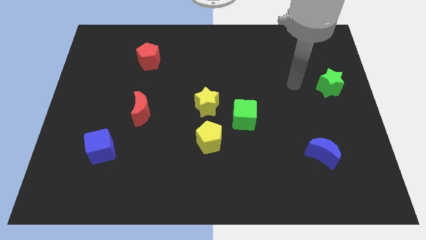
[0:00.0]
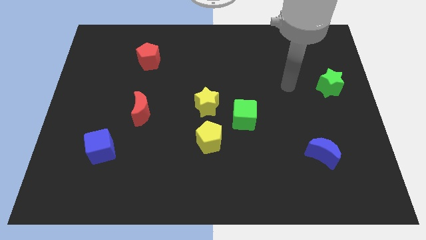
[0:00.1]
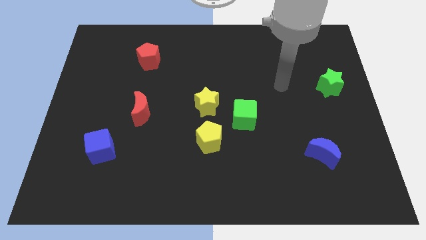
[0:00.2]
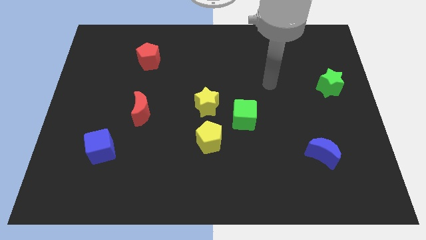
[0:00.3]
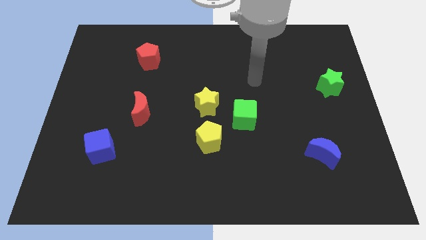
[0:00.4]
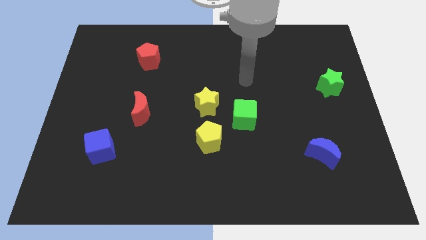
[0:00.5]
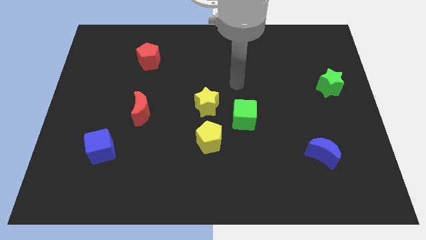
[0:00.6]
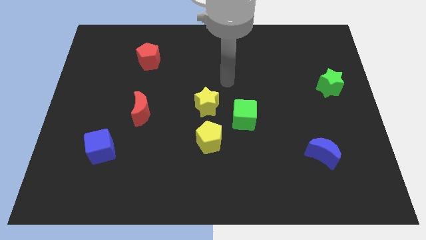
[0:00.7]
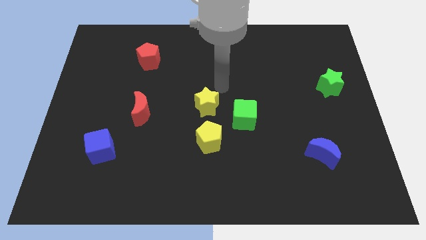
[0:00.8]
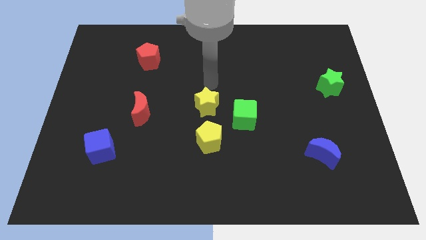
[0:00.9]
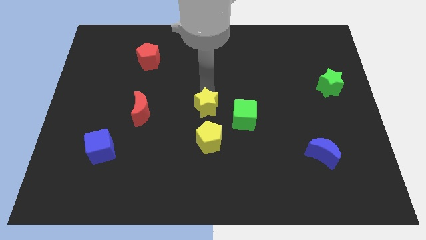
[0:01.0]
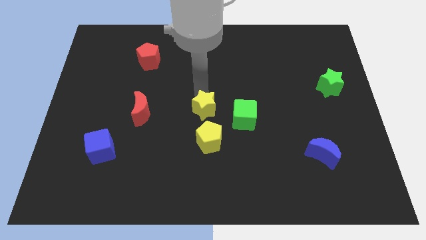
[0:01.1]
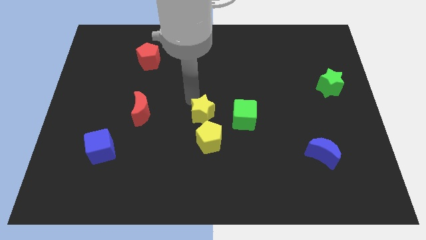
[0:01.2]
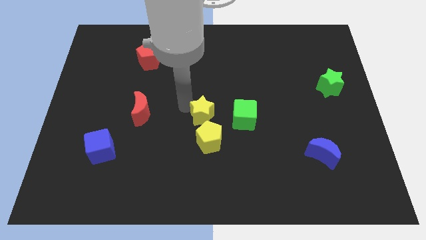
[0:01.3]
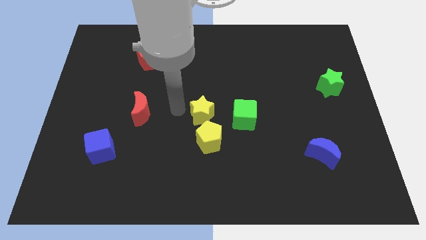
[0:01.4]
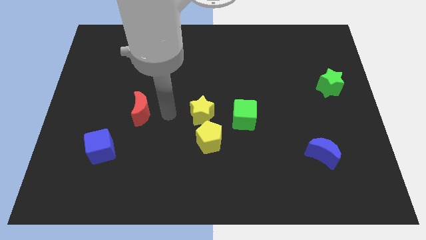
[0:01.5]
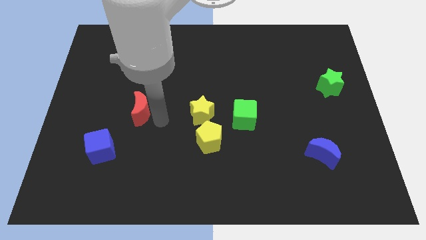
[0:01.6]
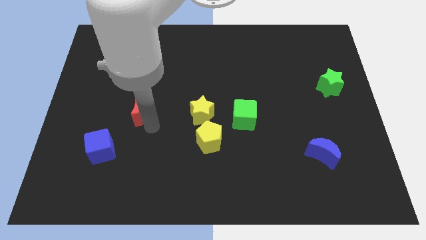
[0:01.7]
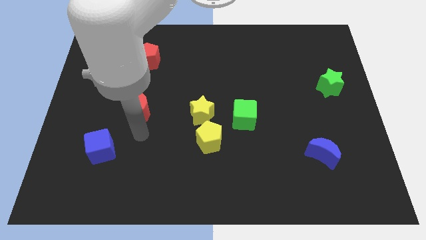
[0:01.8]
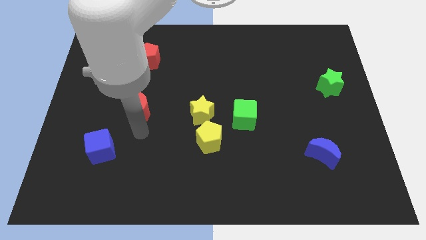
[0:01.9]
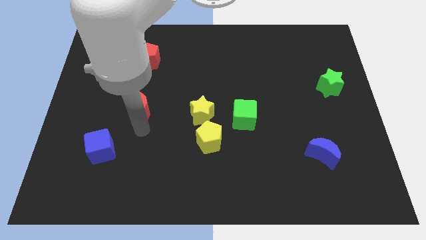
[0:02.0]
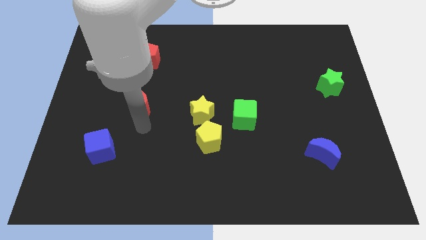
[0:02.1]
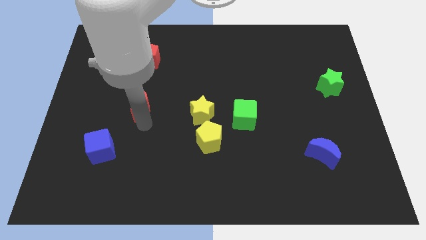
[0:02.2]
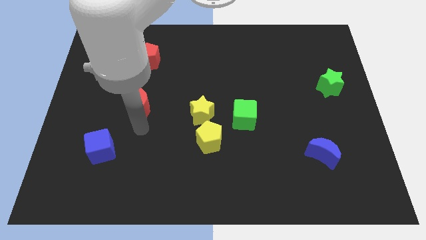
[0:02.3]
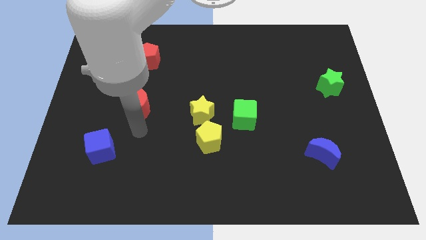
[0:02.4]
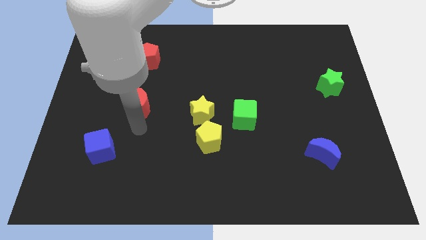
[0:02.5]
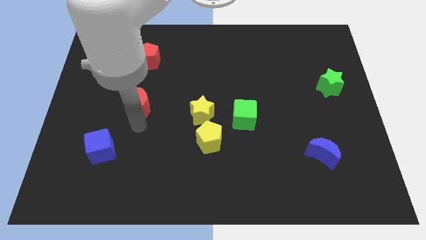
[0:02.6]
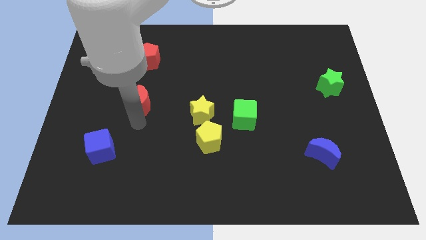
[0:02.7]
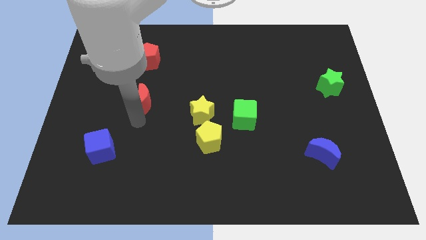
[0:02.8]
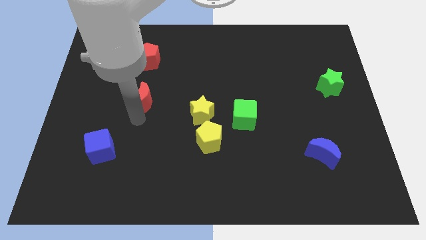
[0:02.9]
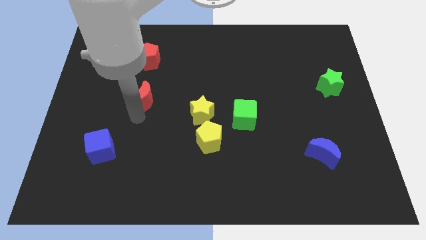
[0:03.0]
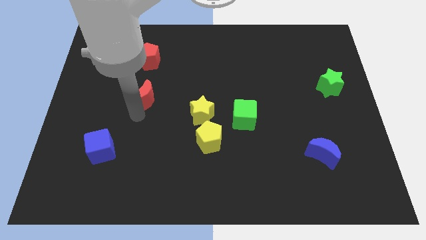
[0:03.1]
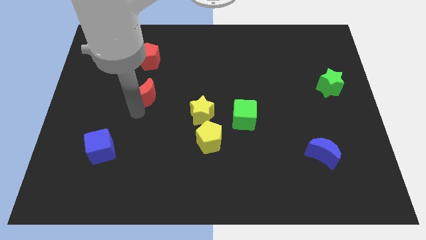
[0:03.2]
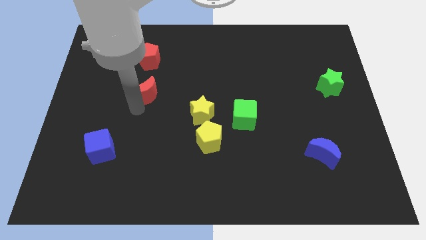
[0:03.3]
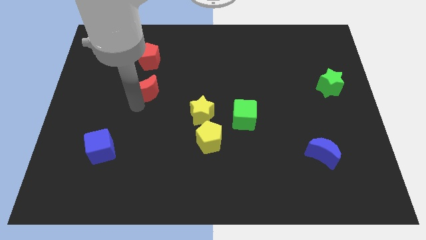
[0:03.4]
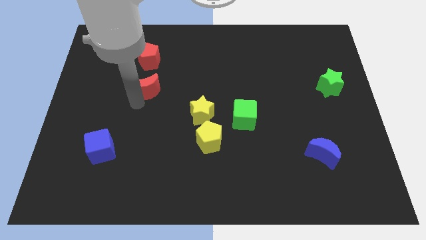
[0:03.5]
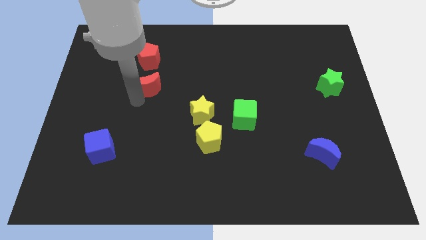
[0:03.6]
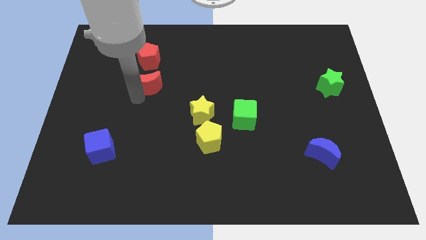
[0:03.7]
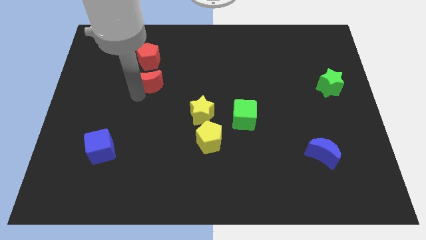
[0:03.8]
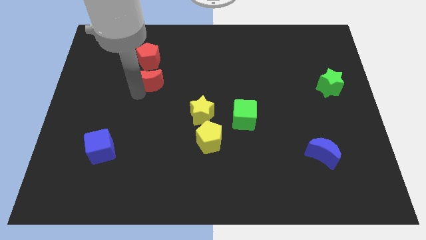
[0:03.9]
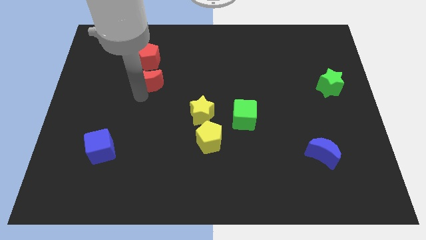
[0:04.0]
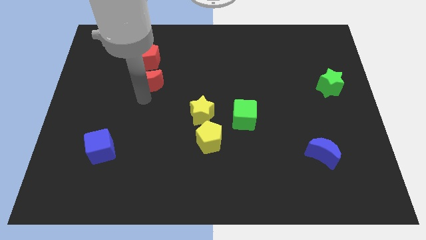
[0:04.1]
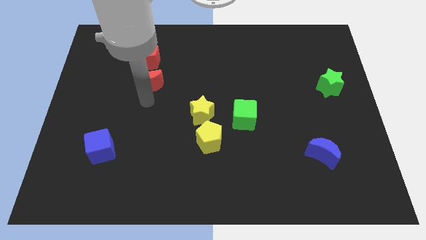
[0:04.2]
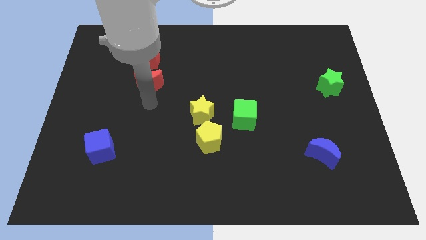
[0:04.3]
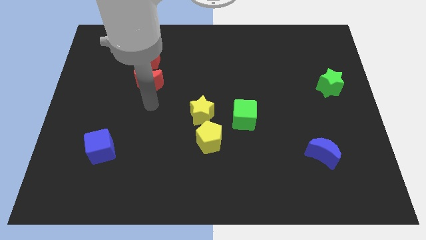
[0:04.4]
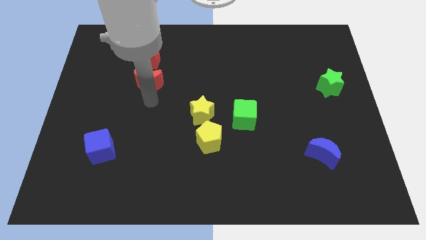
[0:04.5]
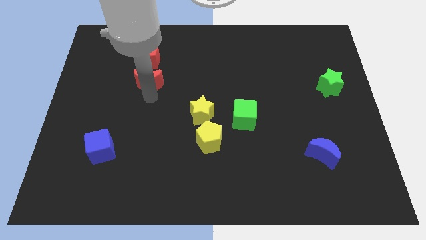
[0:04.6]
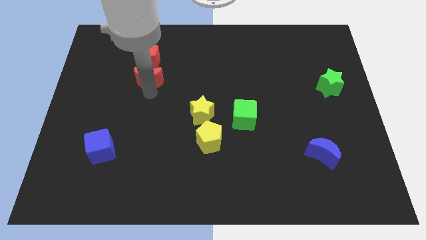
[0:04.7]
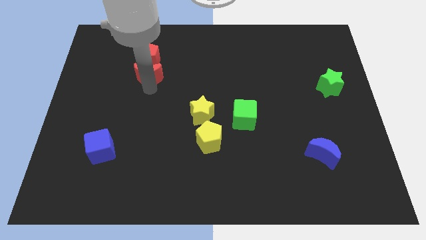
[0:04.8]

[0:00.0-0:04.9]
slide the red moon close to the red pentagon

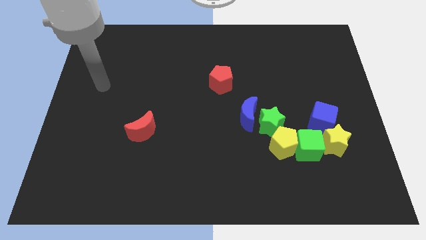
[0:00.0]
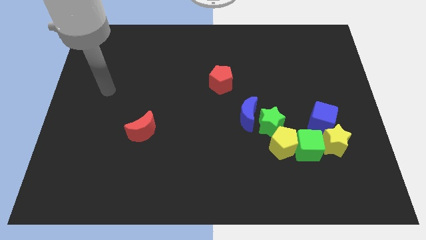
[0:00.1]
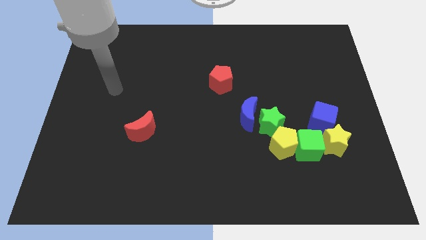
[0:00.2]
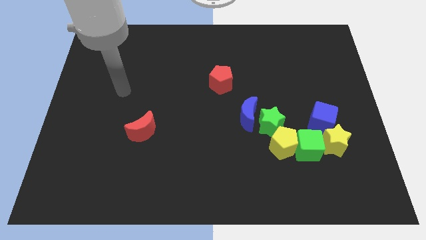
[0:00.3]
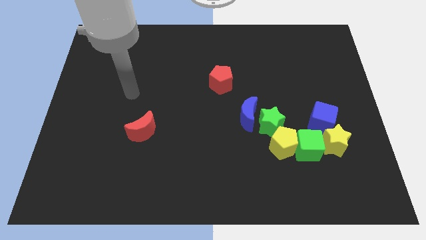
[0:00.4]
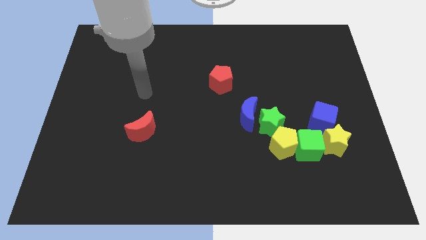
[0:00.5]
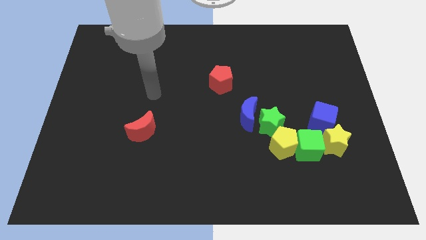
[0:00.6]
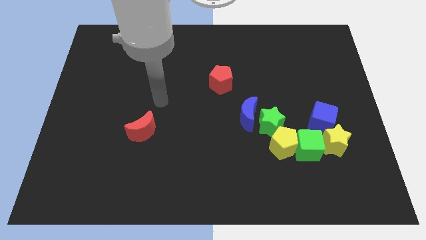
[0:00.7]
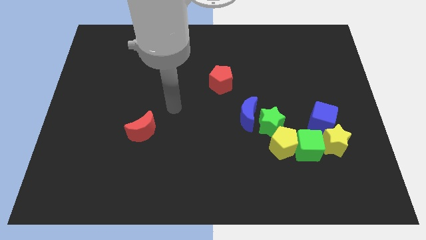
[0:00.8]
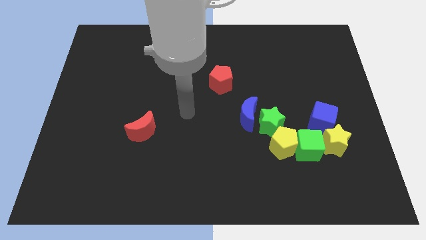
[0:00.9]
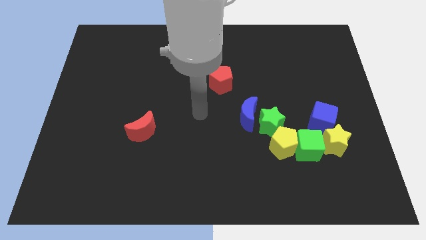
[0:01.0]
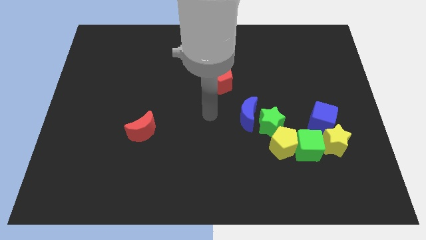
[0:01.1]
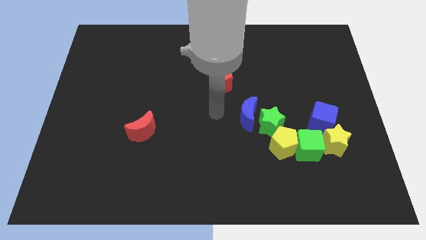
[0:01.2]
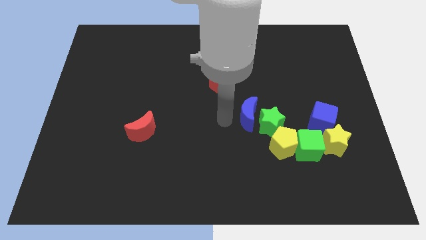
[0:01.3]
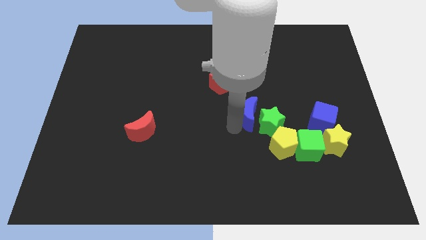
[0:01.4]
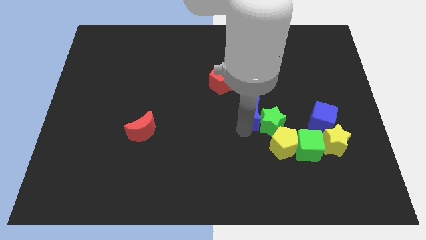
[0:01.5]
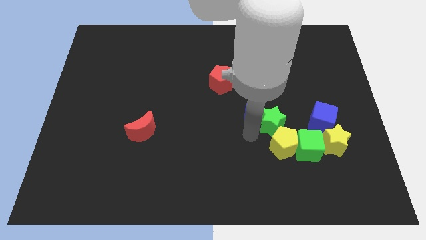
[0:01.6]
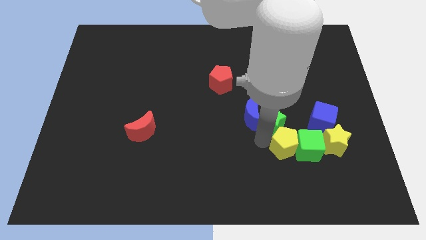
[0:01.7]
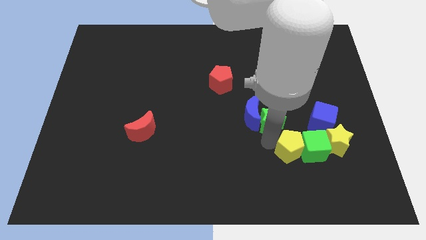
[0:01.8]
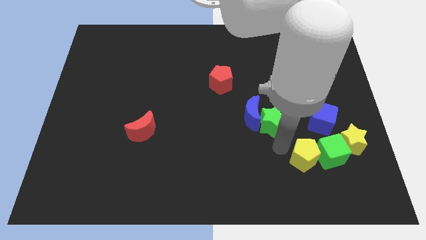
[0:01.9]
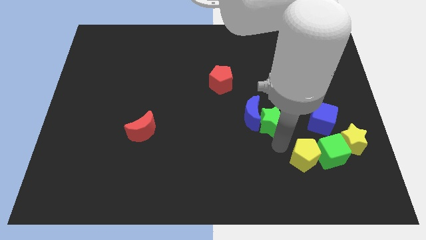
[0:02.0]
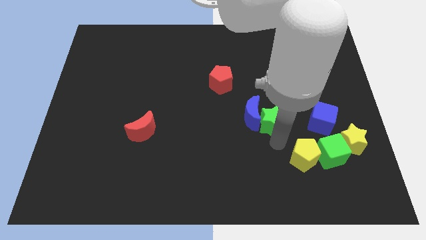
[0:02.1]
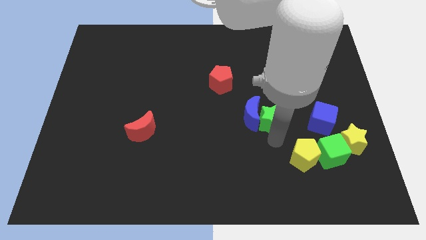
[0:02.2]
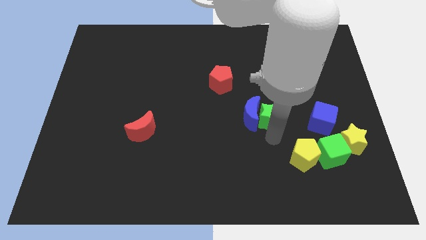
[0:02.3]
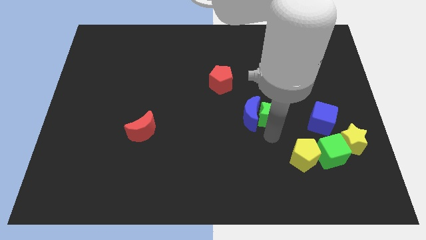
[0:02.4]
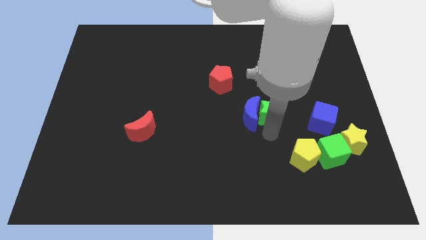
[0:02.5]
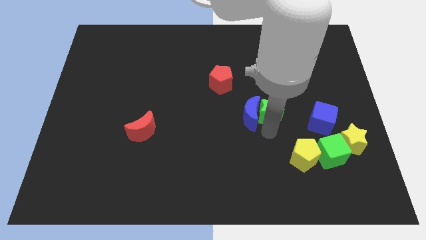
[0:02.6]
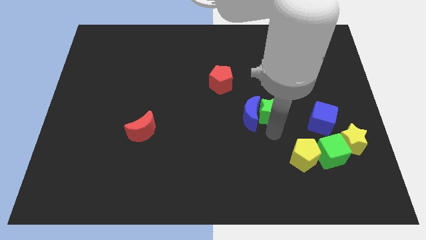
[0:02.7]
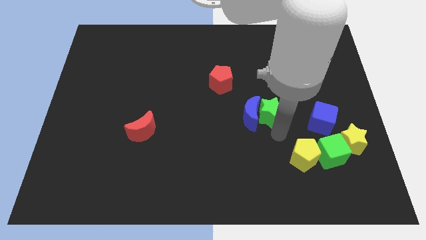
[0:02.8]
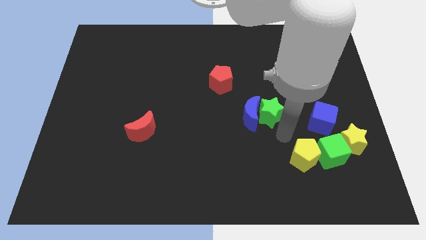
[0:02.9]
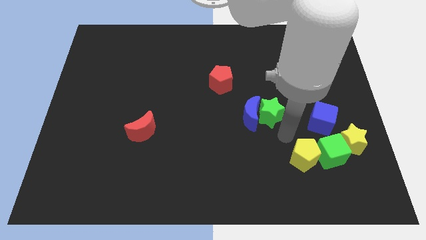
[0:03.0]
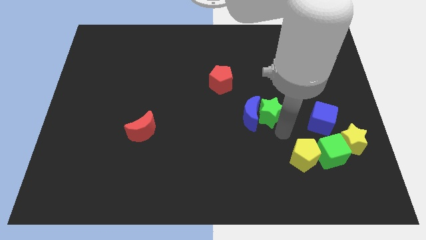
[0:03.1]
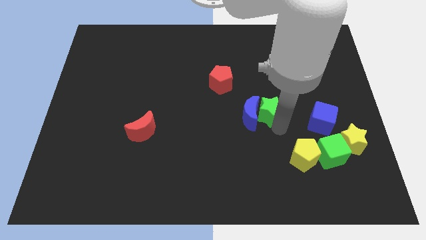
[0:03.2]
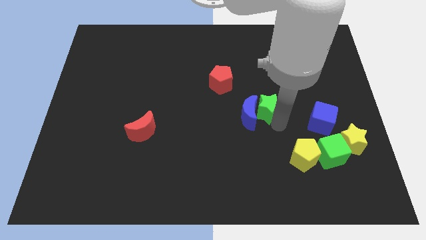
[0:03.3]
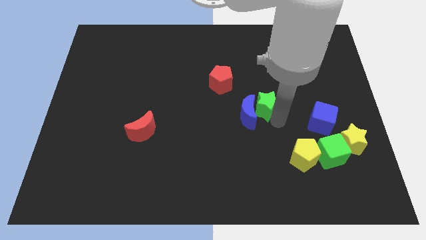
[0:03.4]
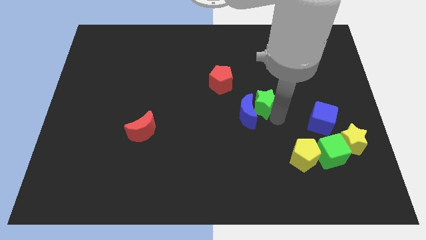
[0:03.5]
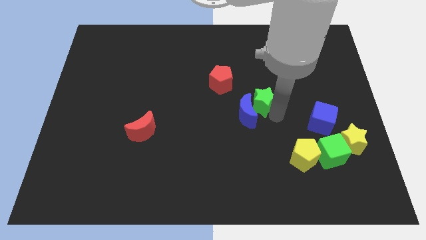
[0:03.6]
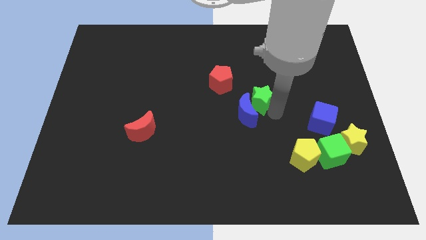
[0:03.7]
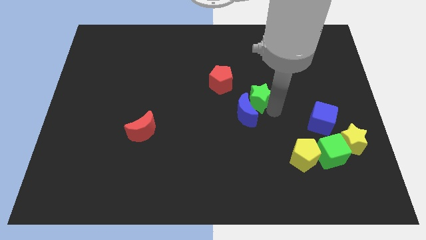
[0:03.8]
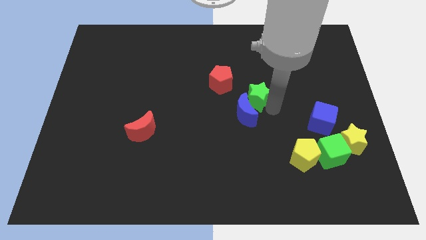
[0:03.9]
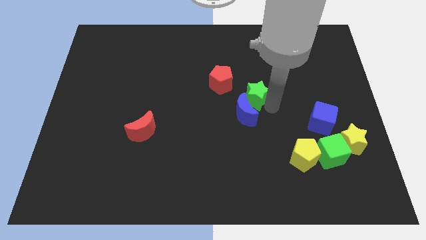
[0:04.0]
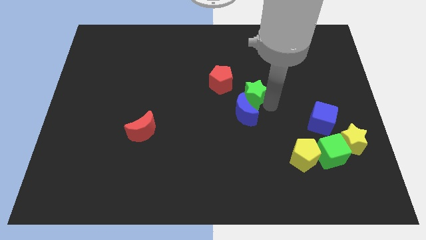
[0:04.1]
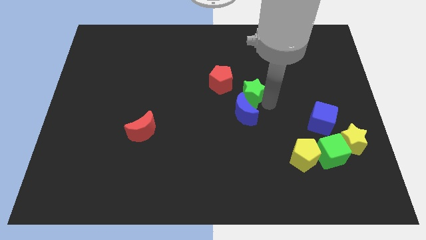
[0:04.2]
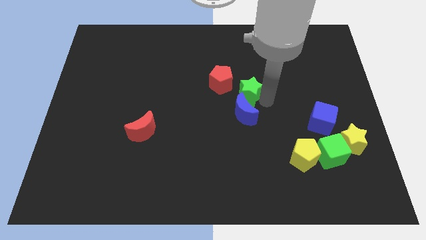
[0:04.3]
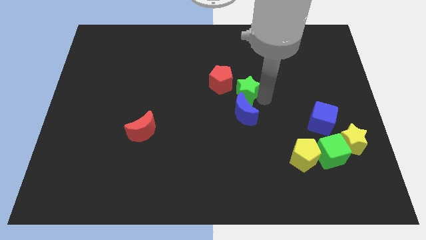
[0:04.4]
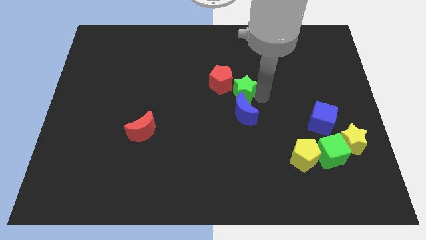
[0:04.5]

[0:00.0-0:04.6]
put the green star towards the red pentagon
